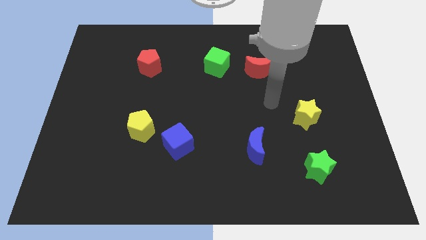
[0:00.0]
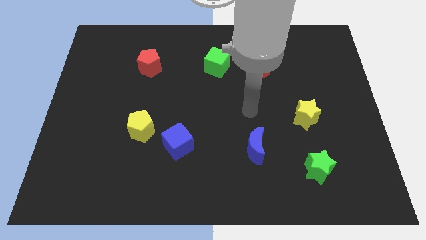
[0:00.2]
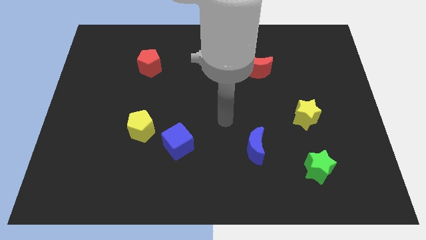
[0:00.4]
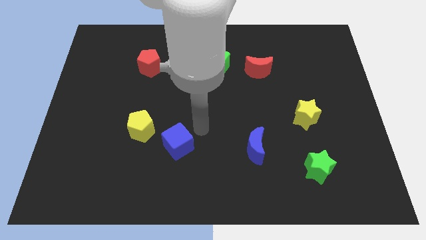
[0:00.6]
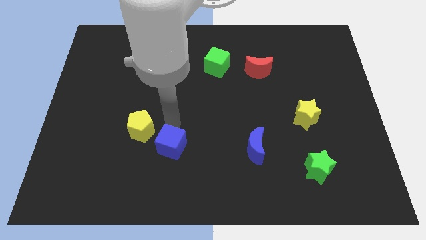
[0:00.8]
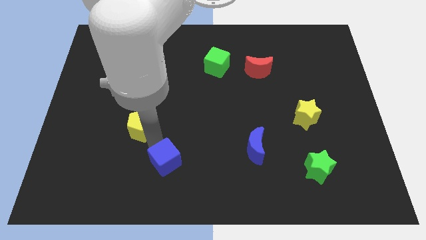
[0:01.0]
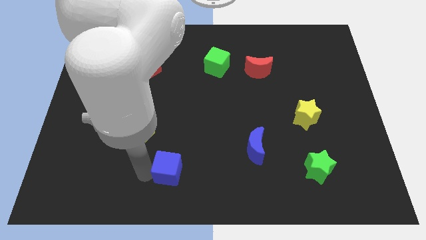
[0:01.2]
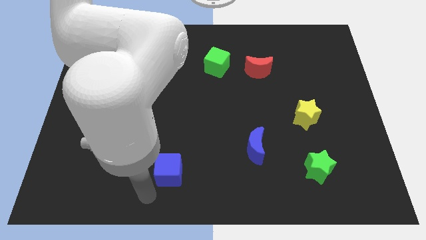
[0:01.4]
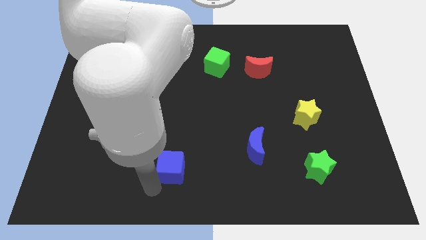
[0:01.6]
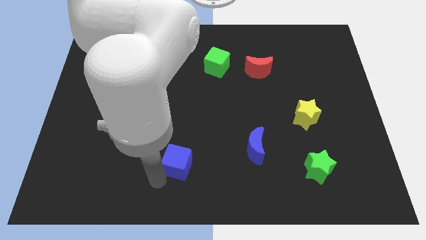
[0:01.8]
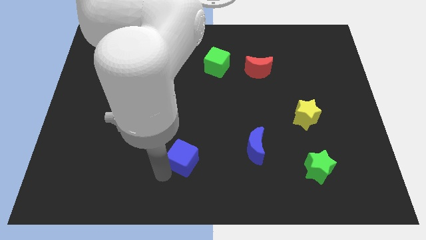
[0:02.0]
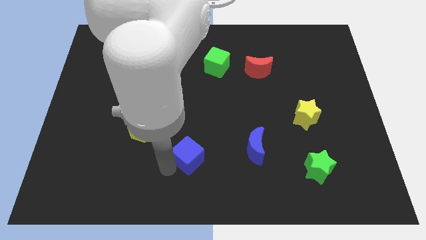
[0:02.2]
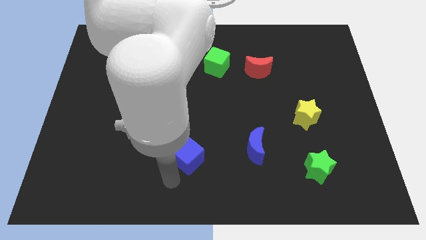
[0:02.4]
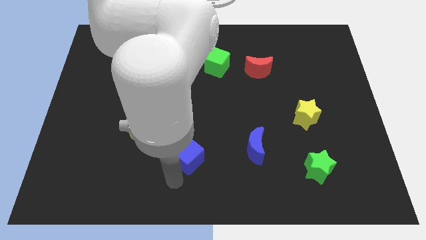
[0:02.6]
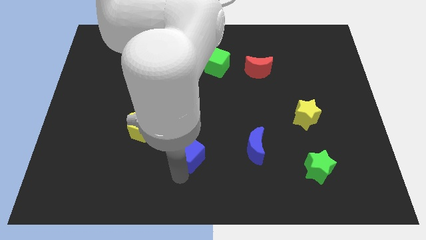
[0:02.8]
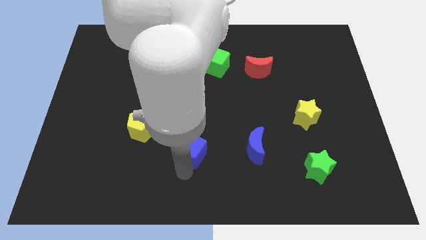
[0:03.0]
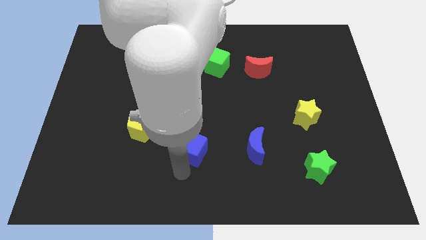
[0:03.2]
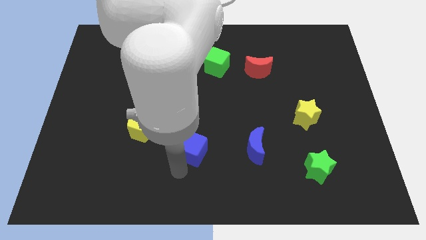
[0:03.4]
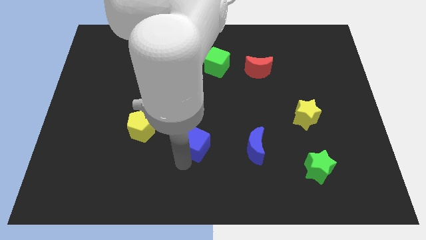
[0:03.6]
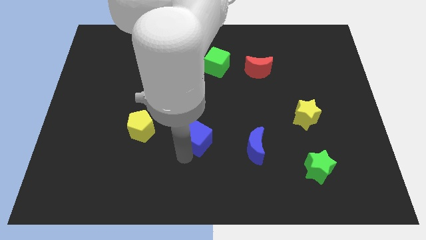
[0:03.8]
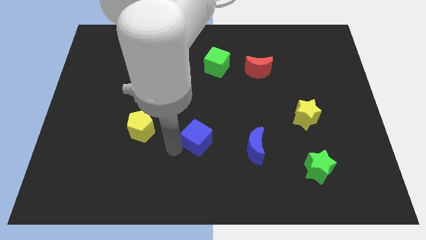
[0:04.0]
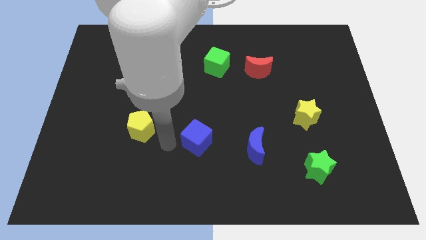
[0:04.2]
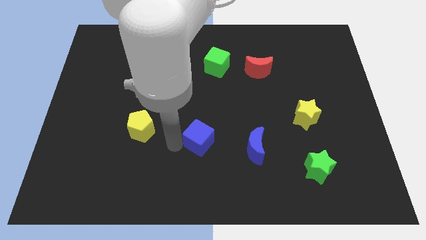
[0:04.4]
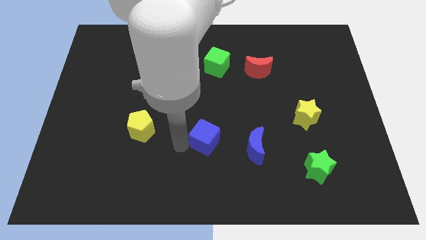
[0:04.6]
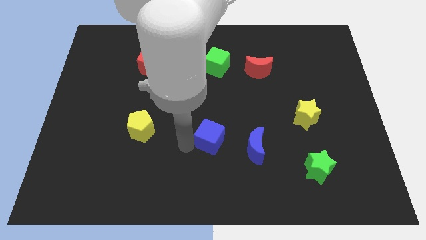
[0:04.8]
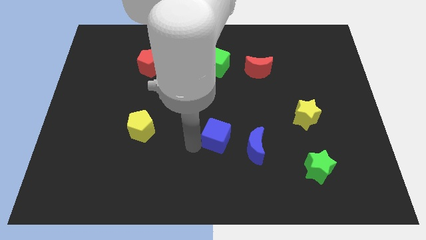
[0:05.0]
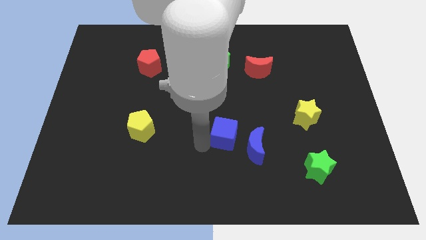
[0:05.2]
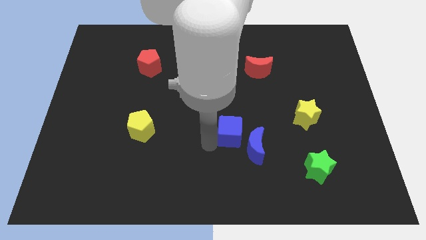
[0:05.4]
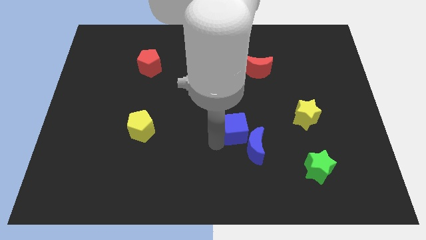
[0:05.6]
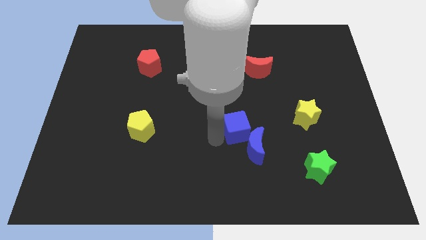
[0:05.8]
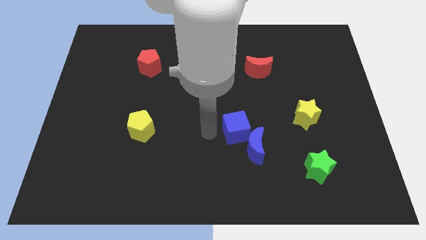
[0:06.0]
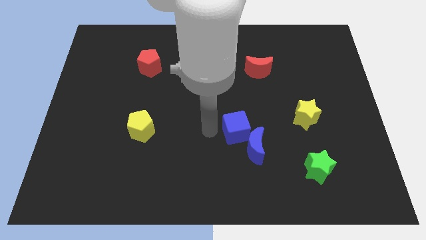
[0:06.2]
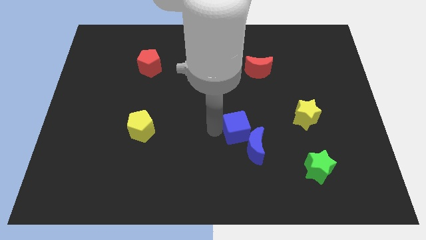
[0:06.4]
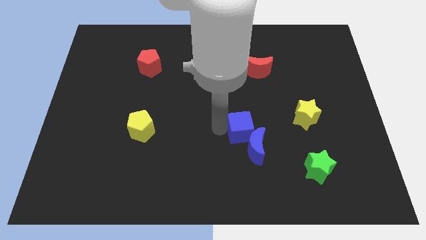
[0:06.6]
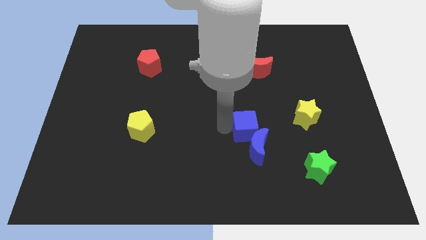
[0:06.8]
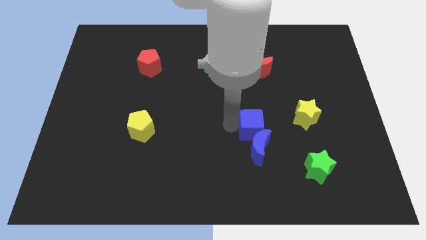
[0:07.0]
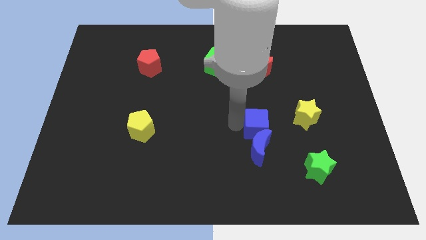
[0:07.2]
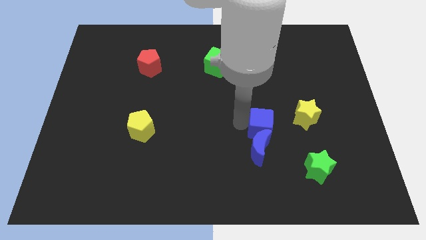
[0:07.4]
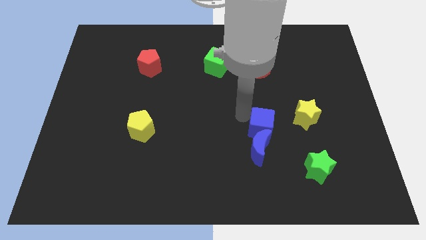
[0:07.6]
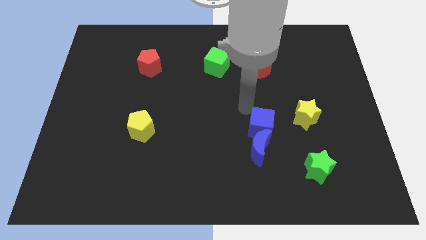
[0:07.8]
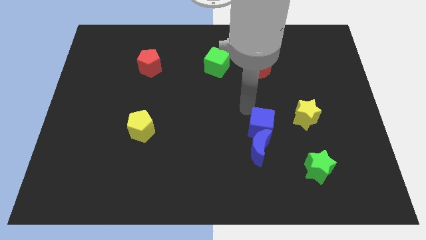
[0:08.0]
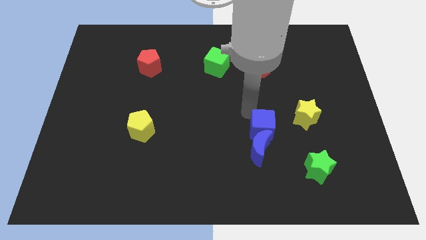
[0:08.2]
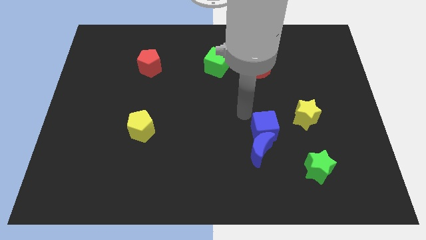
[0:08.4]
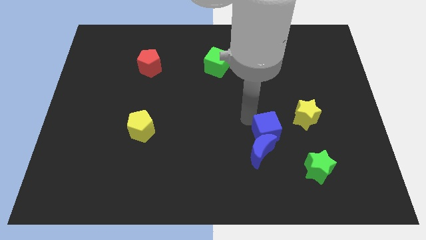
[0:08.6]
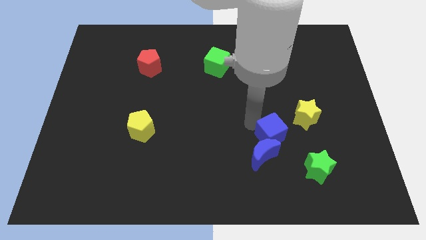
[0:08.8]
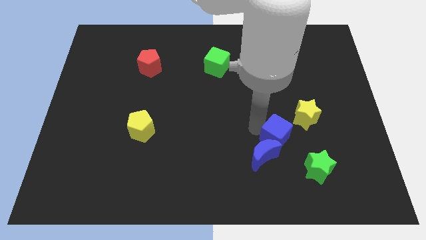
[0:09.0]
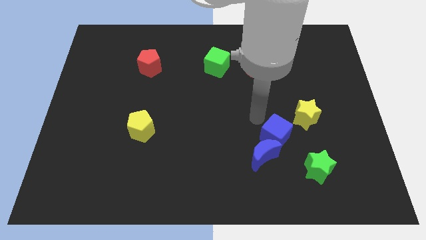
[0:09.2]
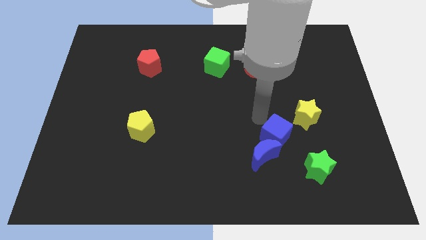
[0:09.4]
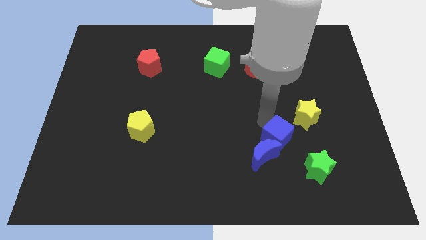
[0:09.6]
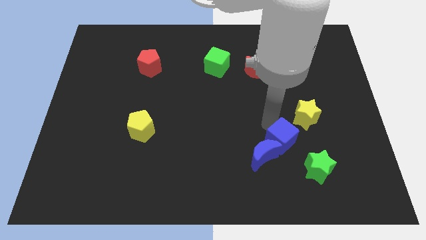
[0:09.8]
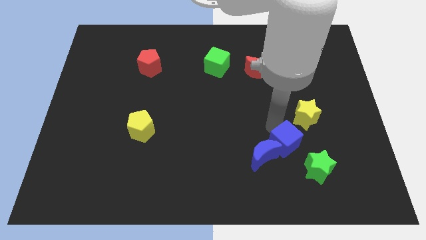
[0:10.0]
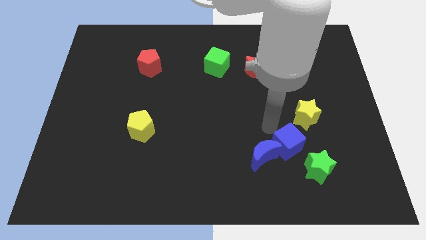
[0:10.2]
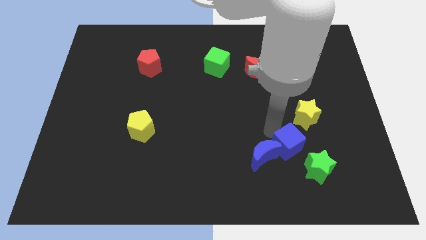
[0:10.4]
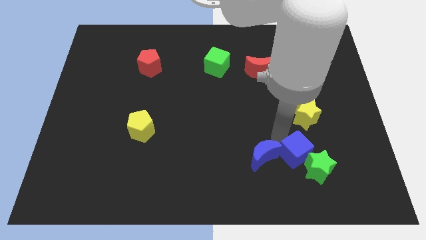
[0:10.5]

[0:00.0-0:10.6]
move the blue cube to the green star
